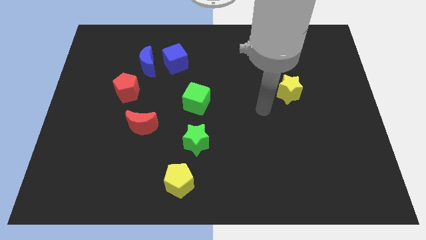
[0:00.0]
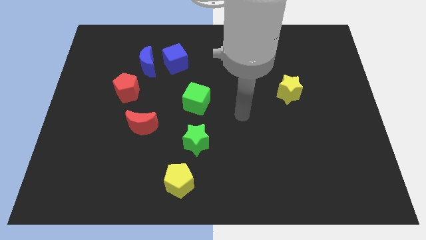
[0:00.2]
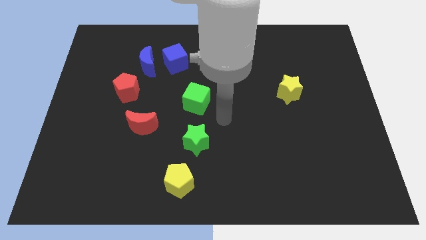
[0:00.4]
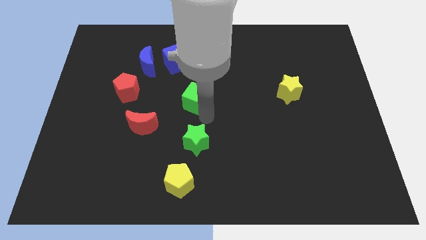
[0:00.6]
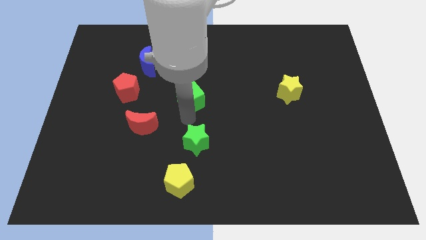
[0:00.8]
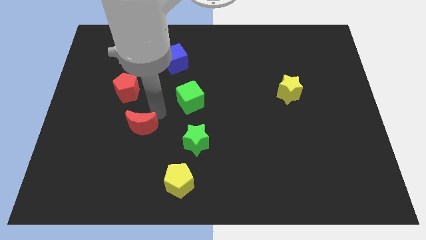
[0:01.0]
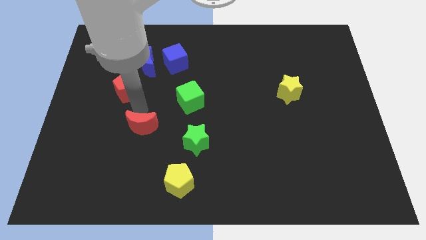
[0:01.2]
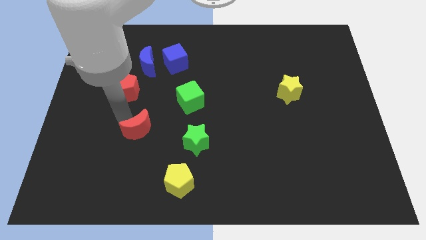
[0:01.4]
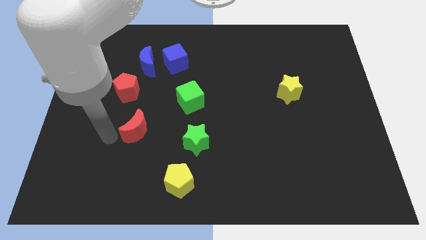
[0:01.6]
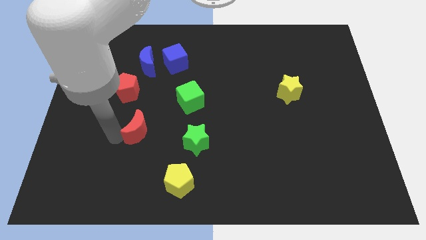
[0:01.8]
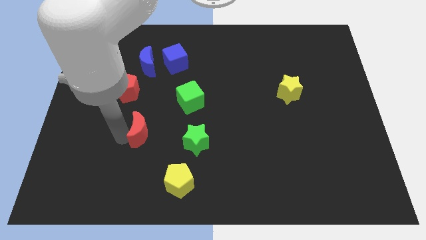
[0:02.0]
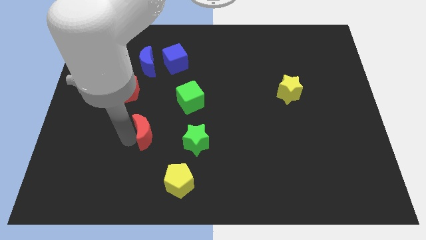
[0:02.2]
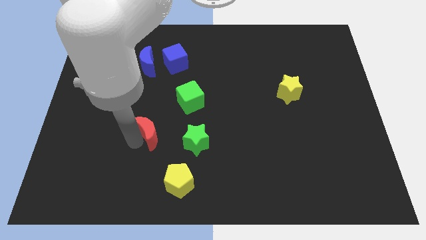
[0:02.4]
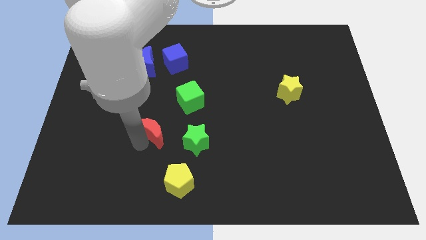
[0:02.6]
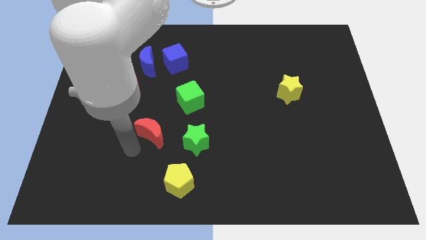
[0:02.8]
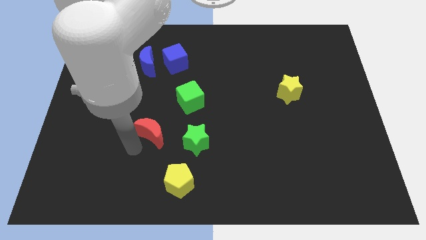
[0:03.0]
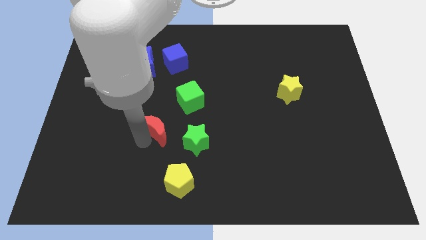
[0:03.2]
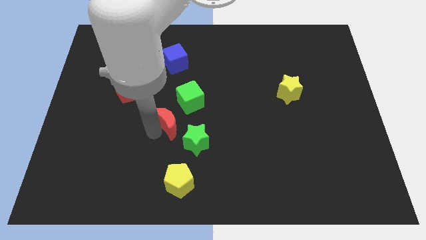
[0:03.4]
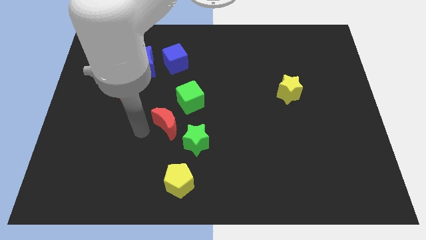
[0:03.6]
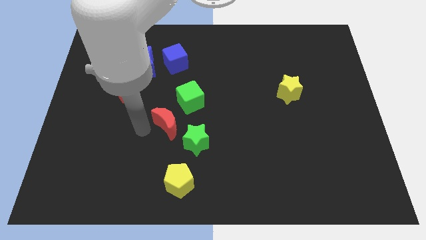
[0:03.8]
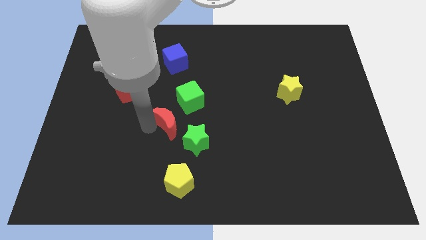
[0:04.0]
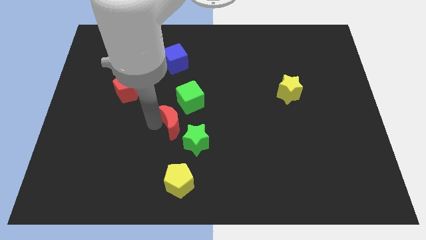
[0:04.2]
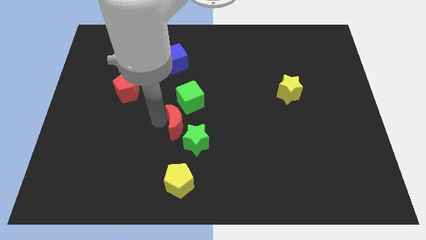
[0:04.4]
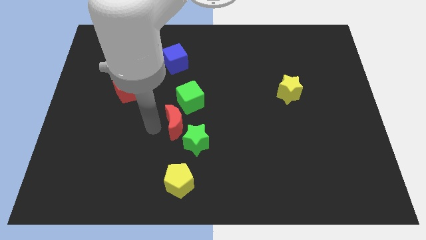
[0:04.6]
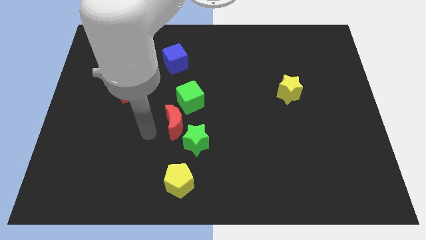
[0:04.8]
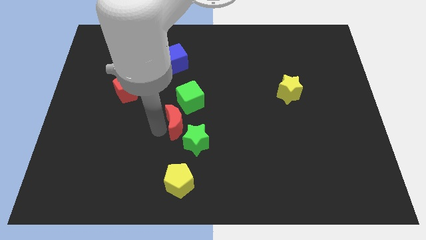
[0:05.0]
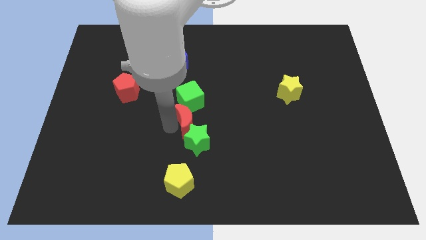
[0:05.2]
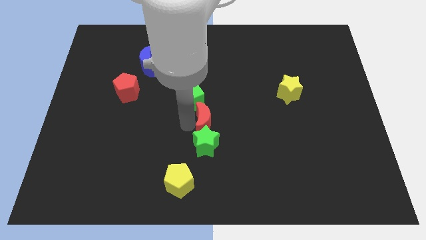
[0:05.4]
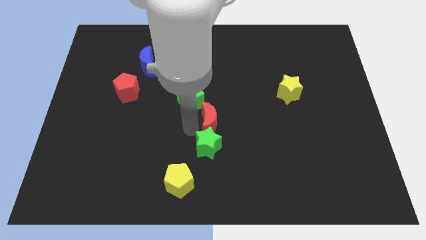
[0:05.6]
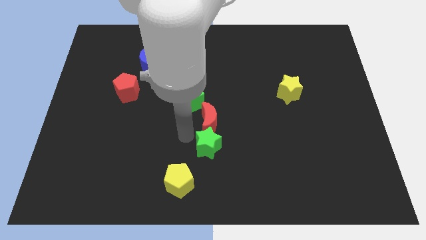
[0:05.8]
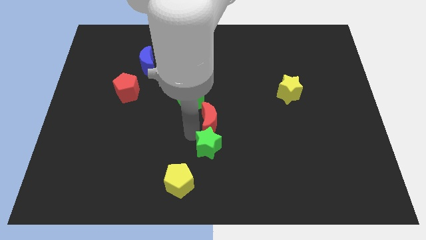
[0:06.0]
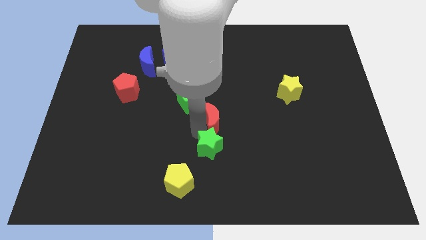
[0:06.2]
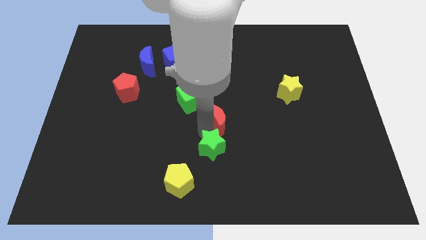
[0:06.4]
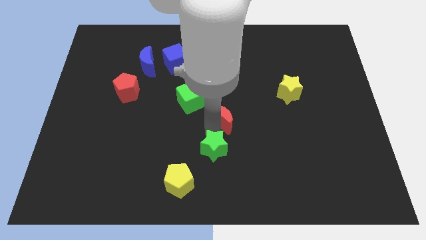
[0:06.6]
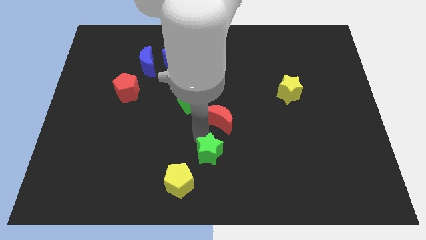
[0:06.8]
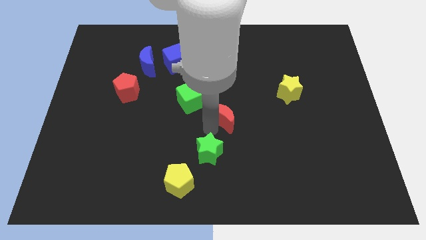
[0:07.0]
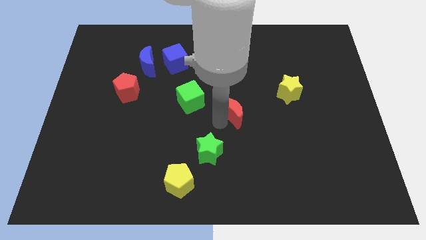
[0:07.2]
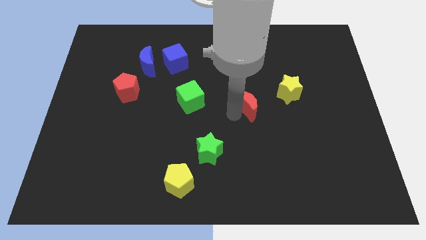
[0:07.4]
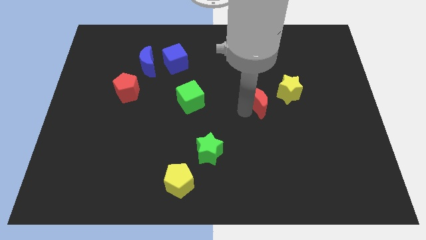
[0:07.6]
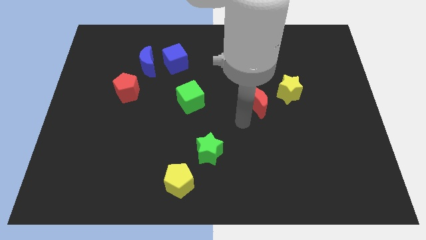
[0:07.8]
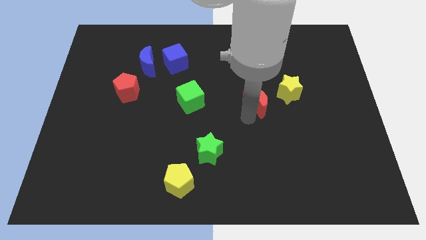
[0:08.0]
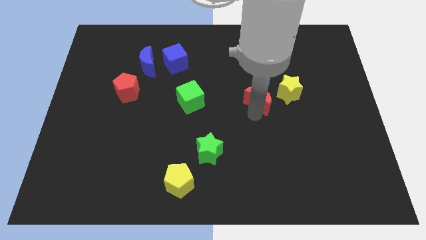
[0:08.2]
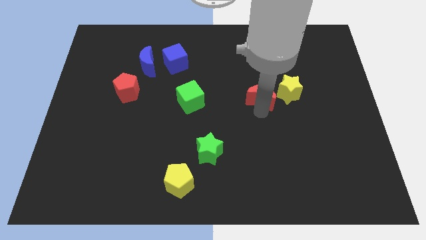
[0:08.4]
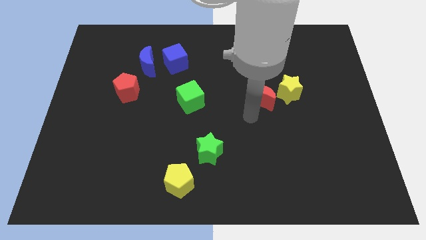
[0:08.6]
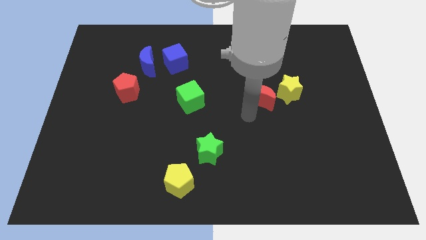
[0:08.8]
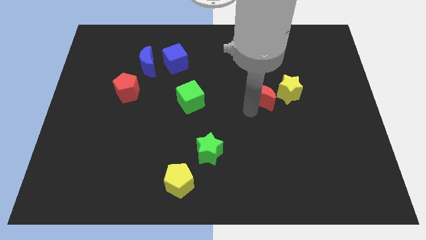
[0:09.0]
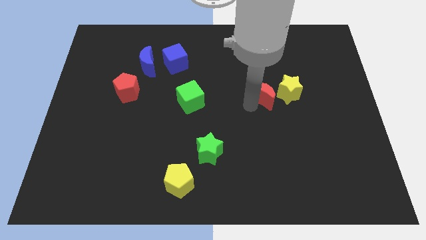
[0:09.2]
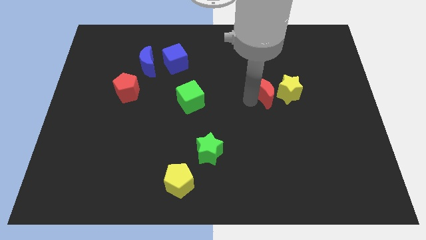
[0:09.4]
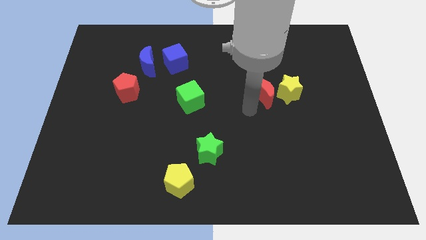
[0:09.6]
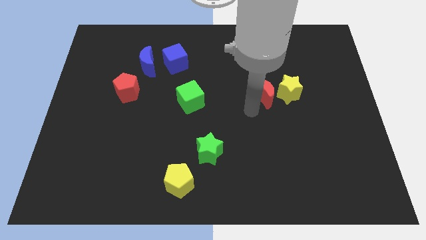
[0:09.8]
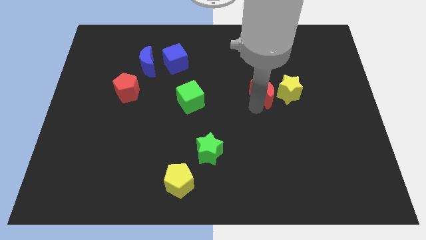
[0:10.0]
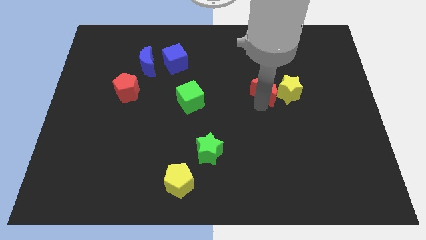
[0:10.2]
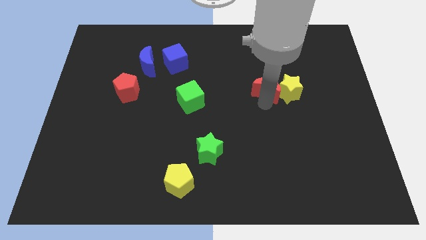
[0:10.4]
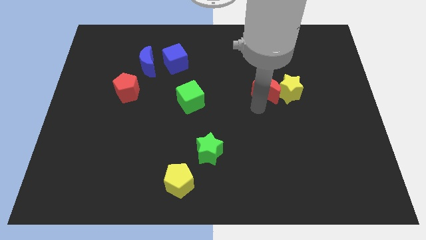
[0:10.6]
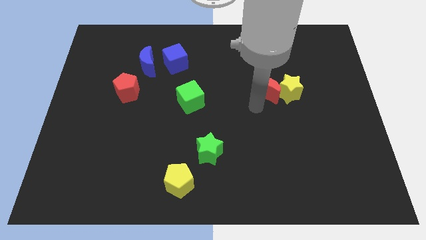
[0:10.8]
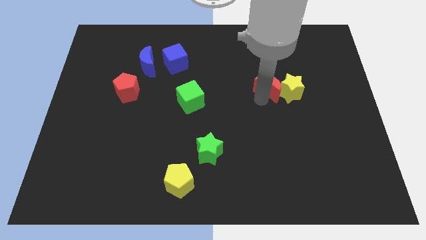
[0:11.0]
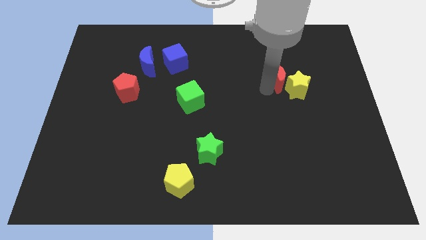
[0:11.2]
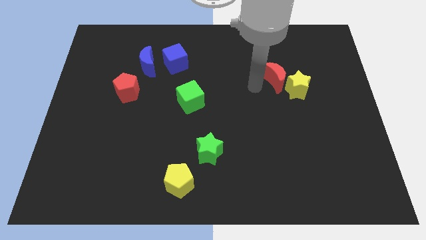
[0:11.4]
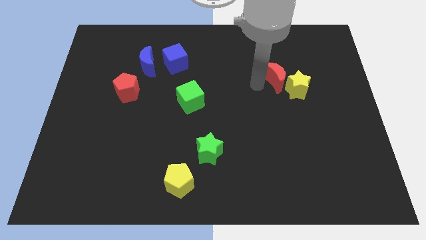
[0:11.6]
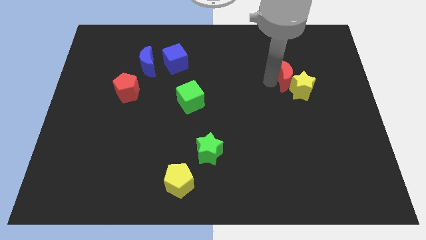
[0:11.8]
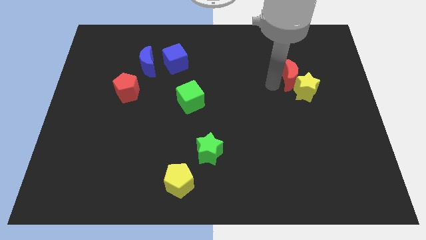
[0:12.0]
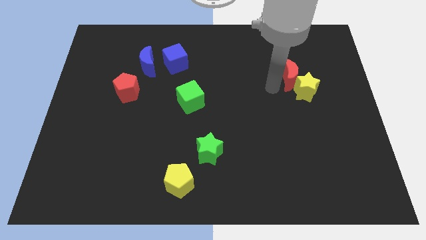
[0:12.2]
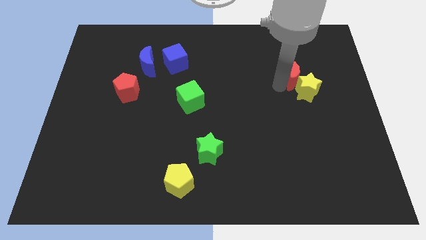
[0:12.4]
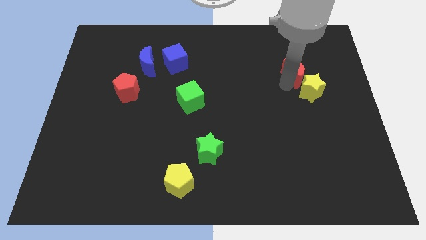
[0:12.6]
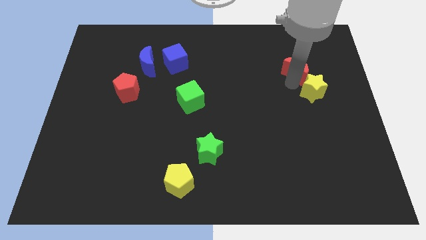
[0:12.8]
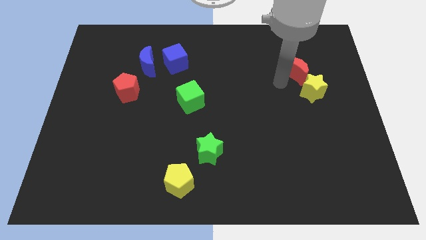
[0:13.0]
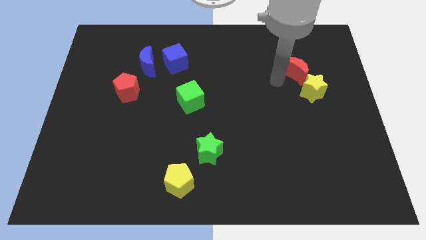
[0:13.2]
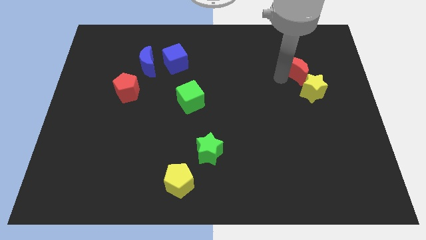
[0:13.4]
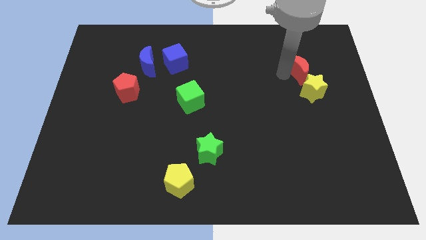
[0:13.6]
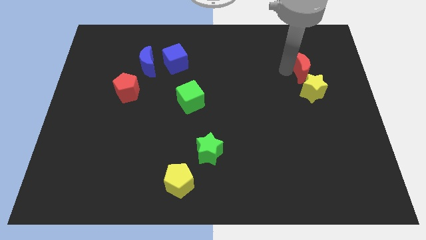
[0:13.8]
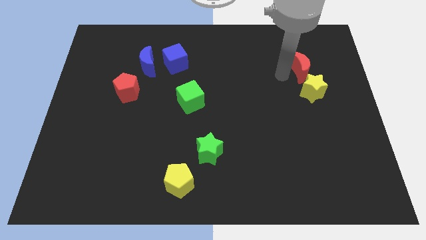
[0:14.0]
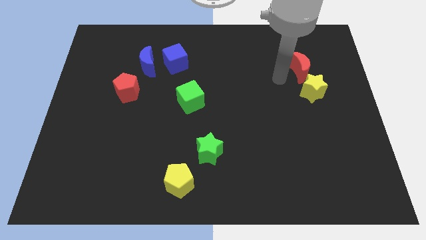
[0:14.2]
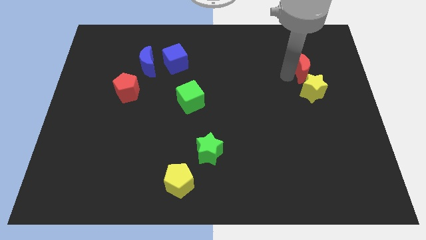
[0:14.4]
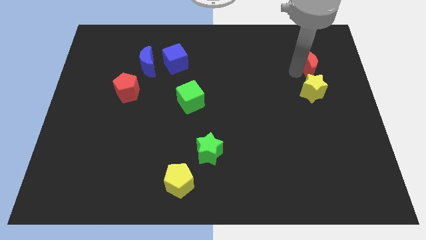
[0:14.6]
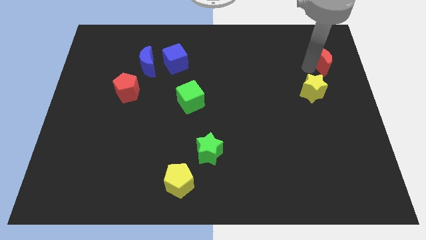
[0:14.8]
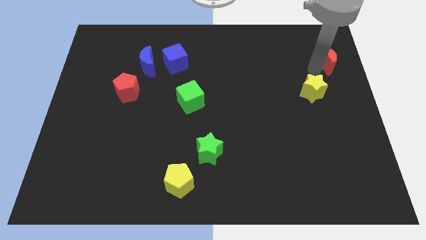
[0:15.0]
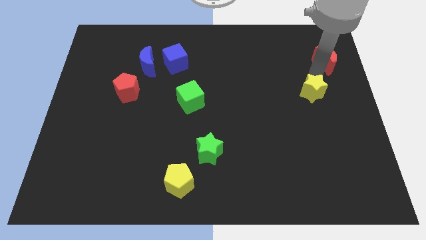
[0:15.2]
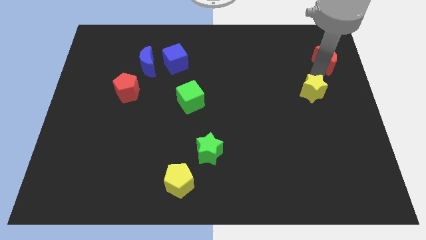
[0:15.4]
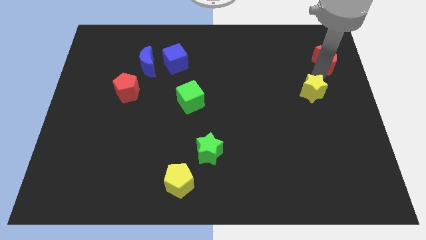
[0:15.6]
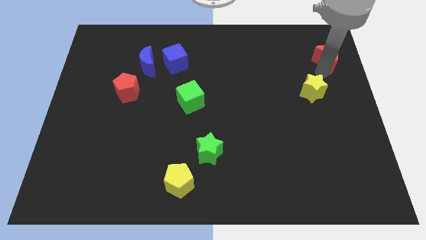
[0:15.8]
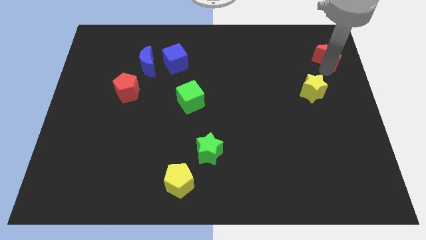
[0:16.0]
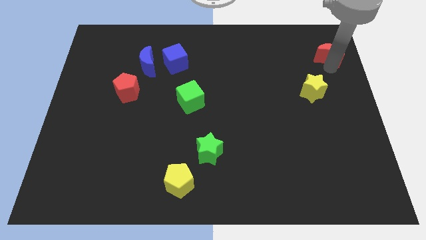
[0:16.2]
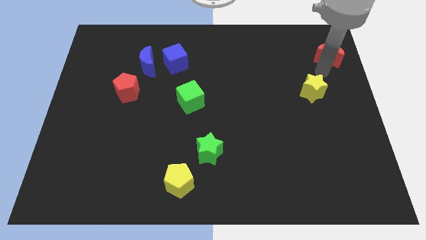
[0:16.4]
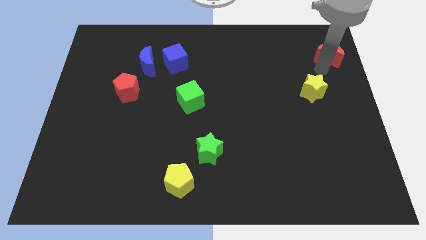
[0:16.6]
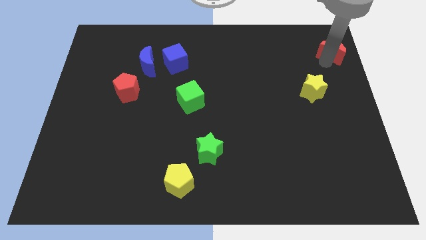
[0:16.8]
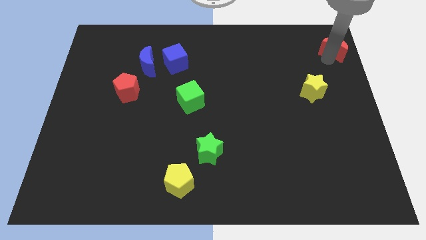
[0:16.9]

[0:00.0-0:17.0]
put the red moon to the top right corner
